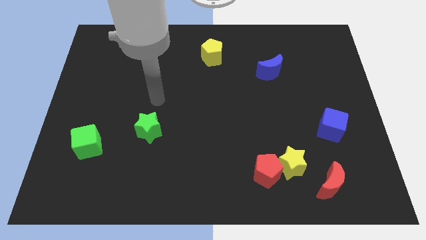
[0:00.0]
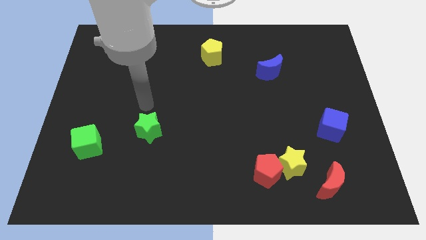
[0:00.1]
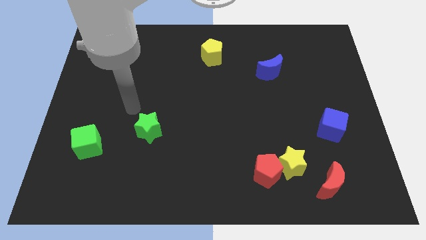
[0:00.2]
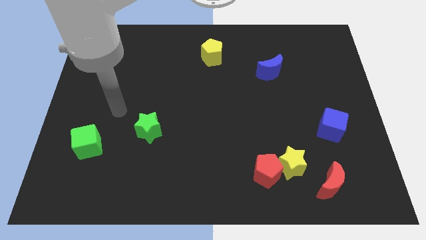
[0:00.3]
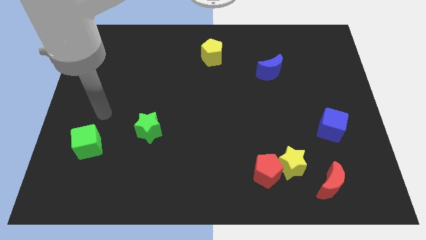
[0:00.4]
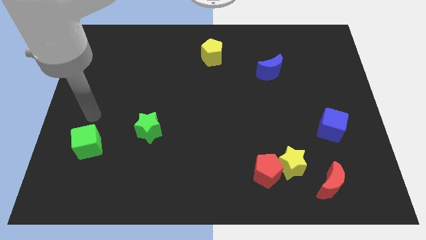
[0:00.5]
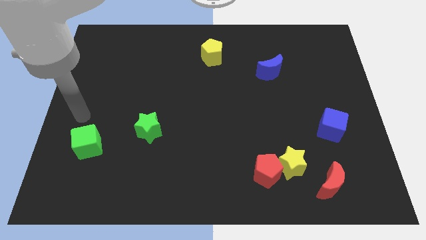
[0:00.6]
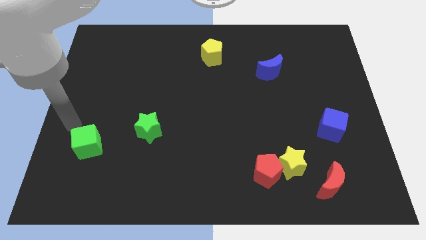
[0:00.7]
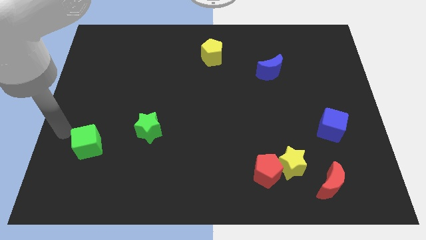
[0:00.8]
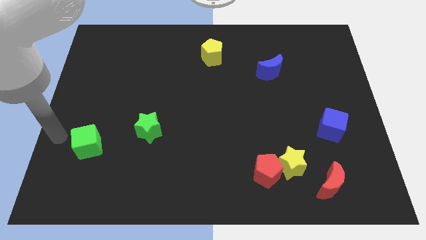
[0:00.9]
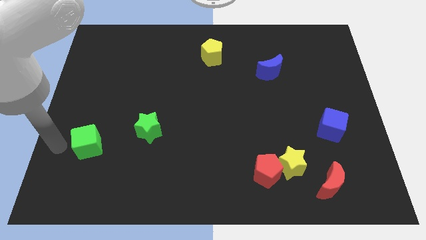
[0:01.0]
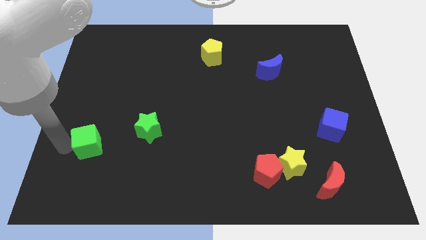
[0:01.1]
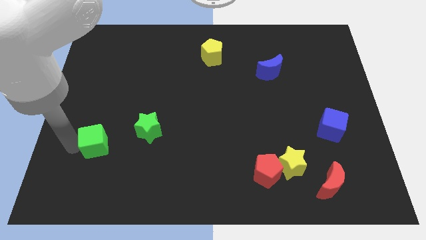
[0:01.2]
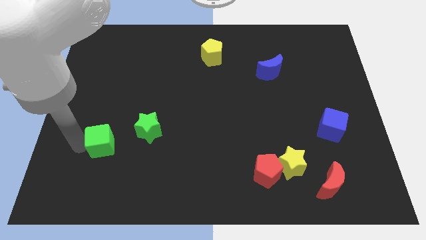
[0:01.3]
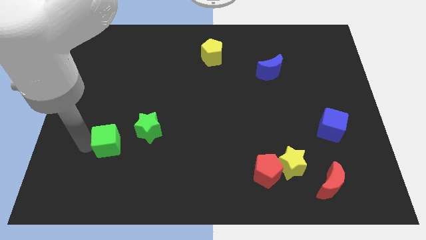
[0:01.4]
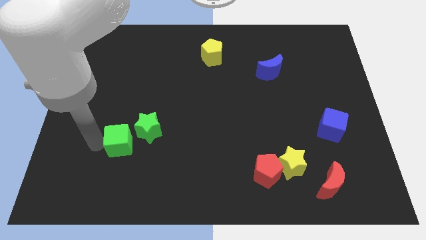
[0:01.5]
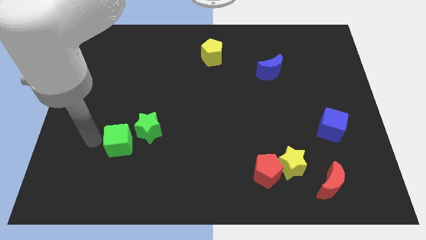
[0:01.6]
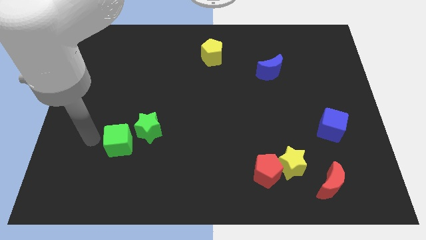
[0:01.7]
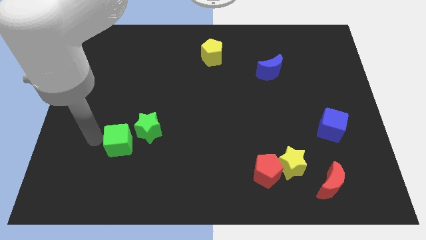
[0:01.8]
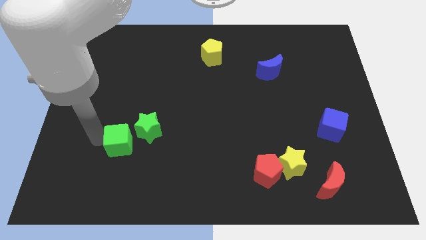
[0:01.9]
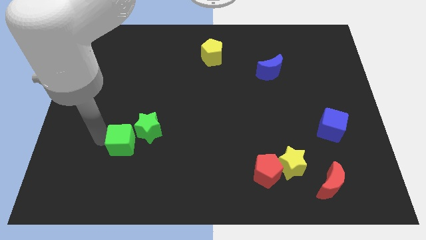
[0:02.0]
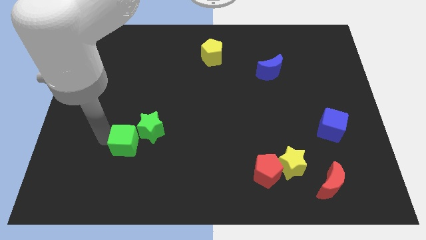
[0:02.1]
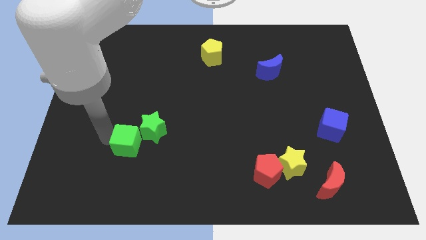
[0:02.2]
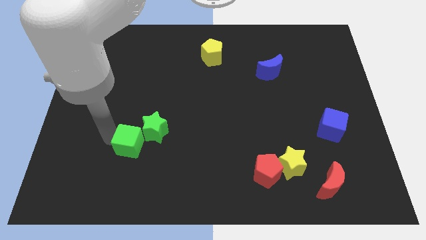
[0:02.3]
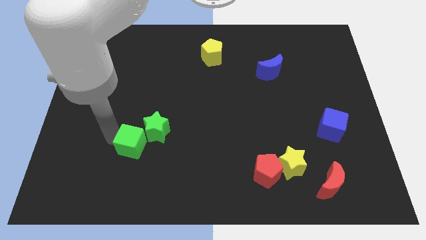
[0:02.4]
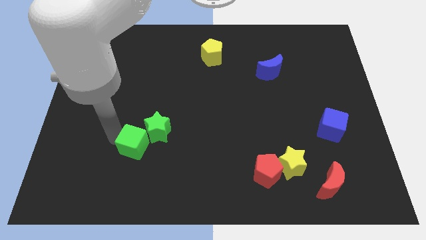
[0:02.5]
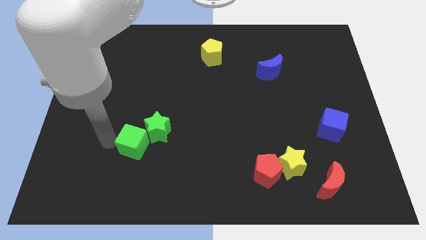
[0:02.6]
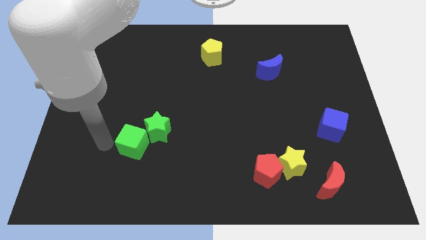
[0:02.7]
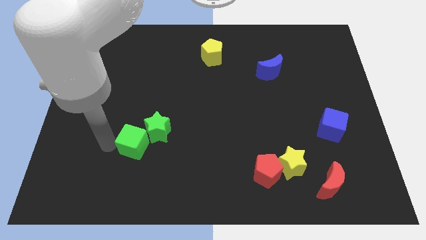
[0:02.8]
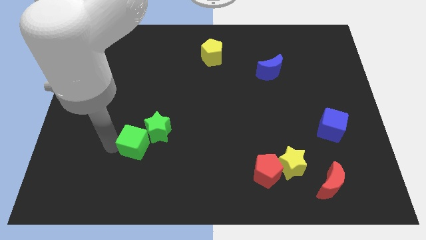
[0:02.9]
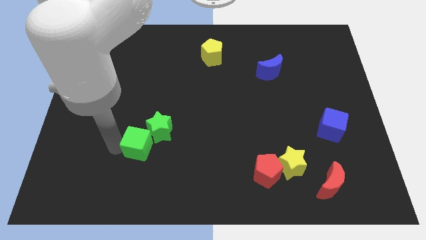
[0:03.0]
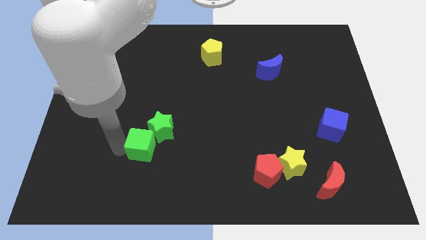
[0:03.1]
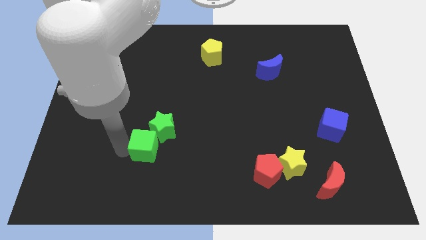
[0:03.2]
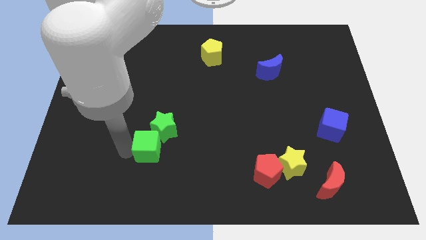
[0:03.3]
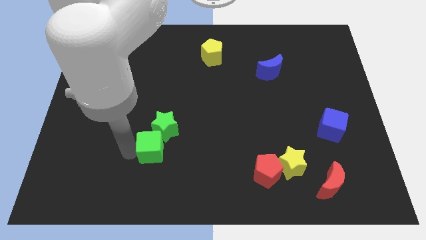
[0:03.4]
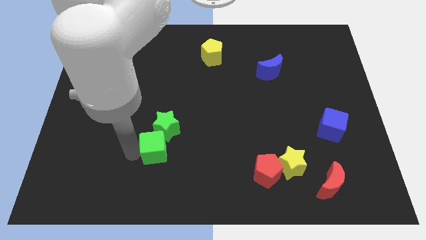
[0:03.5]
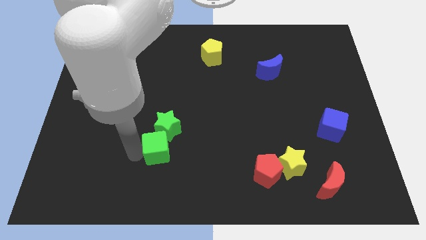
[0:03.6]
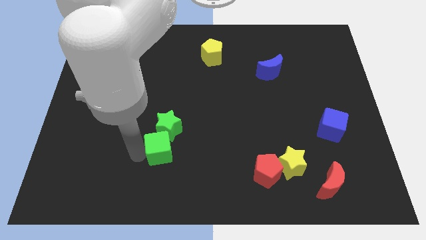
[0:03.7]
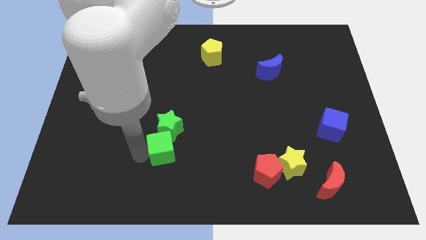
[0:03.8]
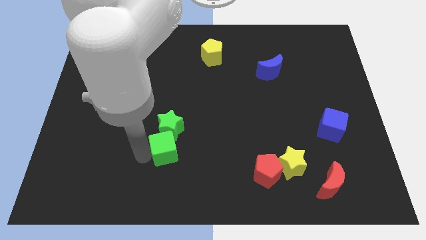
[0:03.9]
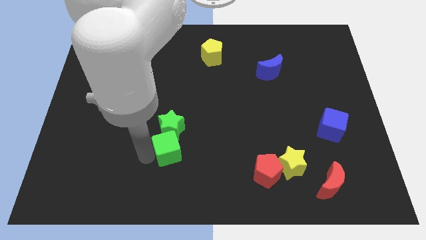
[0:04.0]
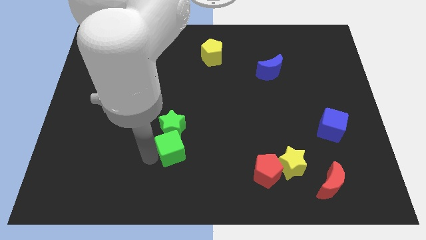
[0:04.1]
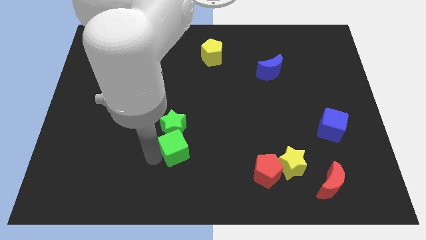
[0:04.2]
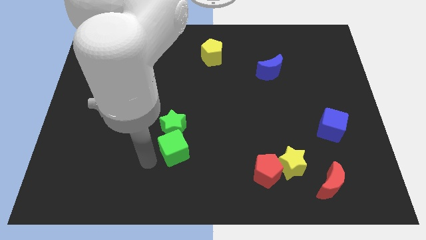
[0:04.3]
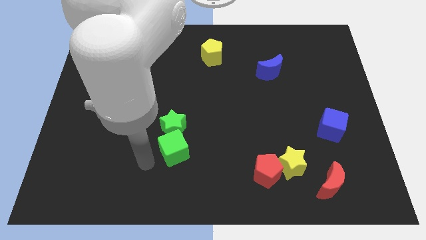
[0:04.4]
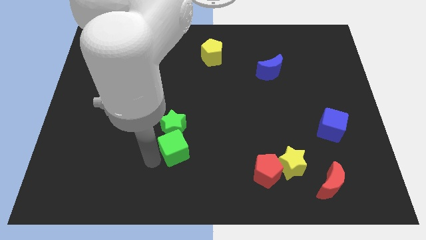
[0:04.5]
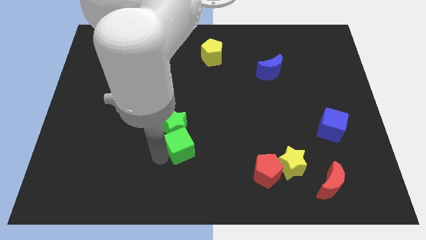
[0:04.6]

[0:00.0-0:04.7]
move the green cube right

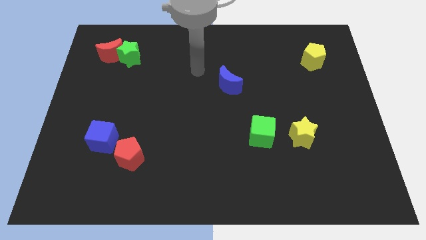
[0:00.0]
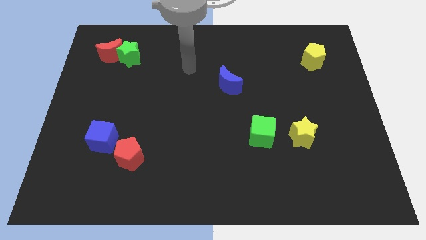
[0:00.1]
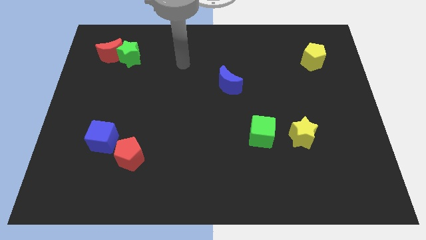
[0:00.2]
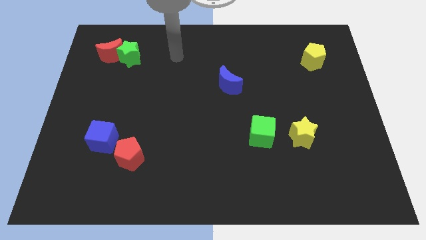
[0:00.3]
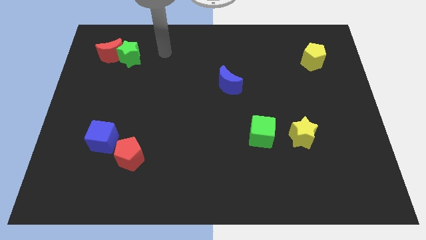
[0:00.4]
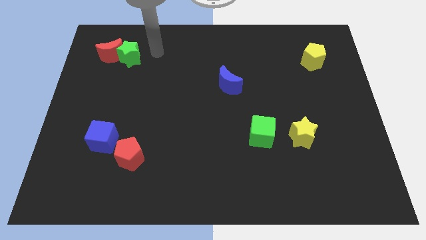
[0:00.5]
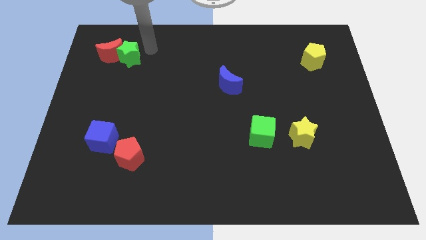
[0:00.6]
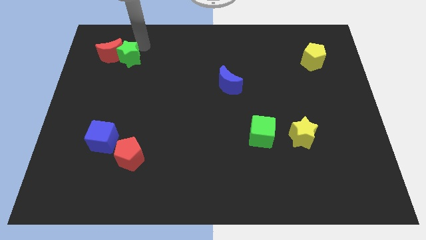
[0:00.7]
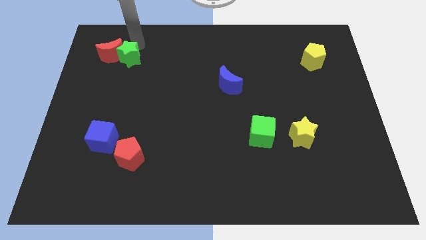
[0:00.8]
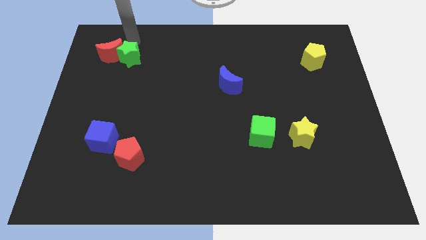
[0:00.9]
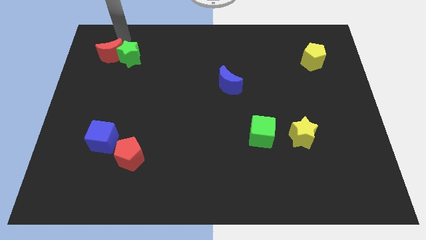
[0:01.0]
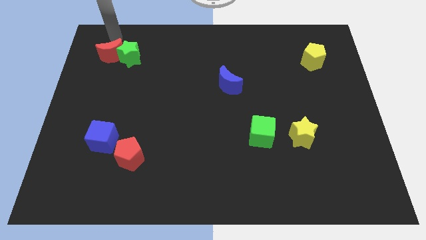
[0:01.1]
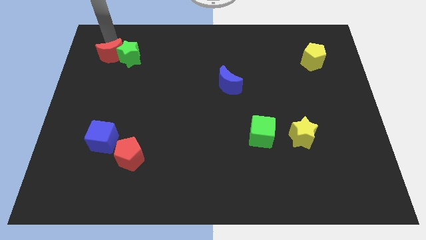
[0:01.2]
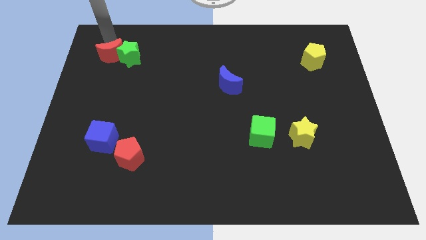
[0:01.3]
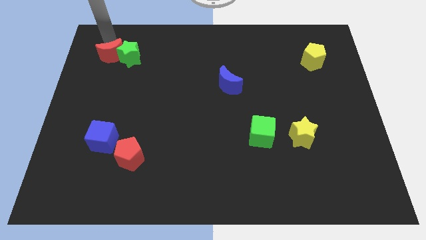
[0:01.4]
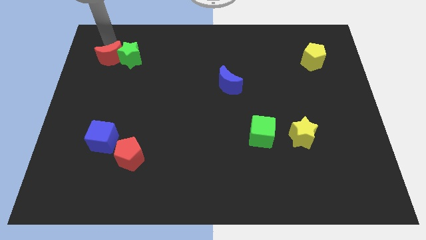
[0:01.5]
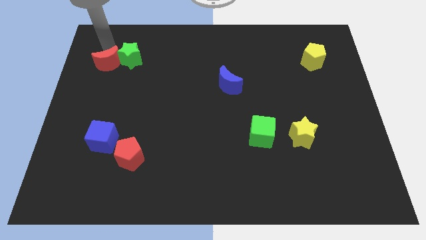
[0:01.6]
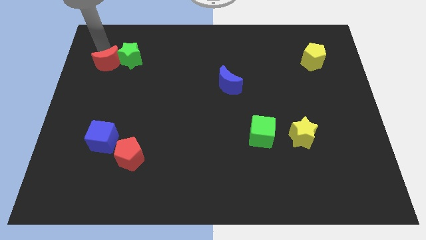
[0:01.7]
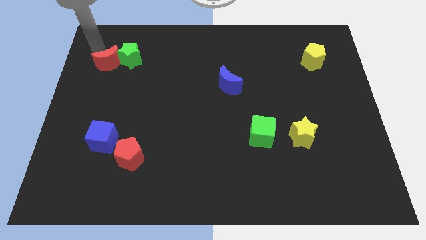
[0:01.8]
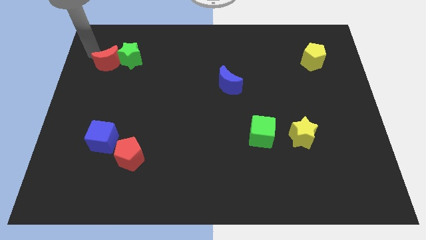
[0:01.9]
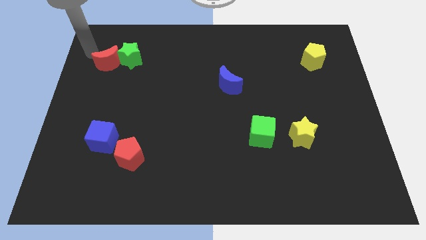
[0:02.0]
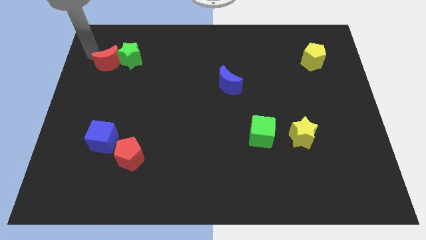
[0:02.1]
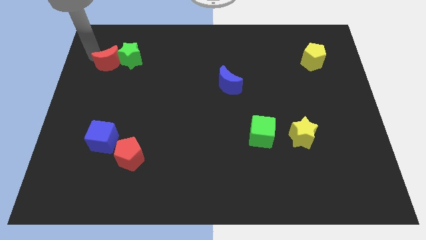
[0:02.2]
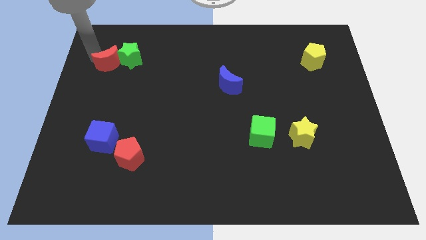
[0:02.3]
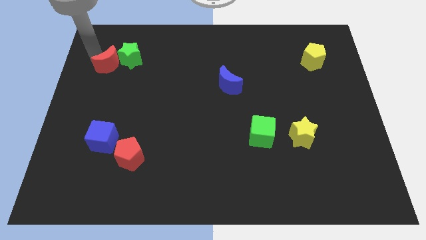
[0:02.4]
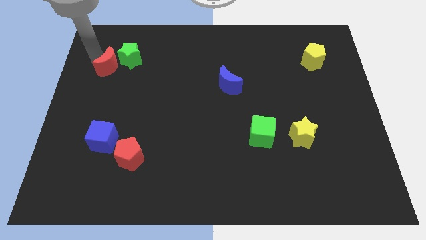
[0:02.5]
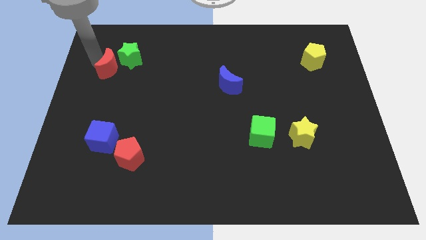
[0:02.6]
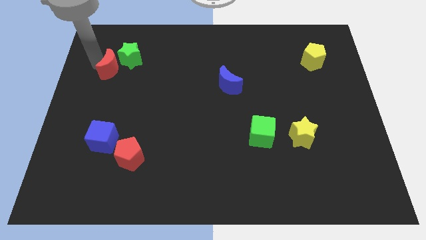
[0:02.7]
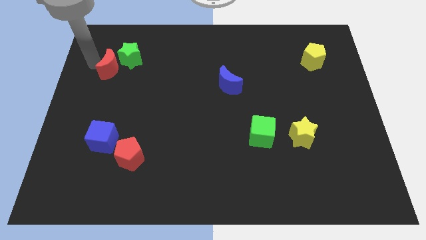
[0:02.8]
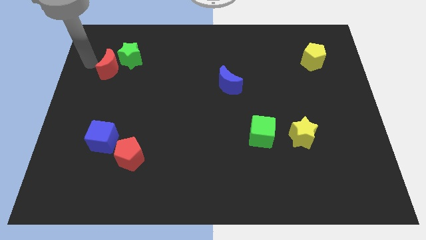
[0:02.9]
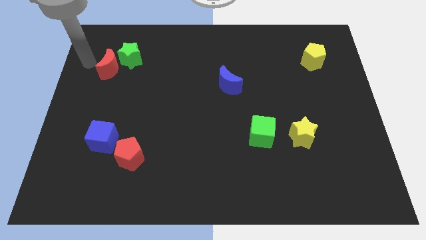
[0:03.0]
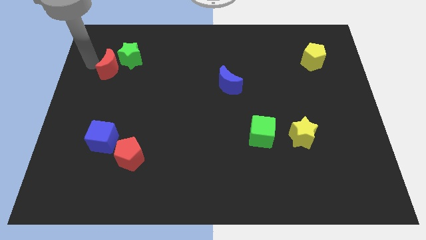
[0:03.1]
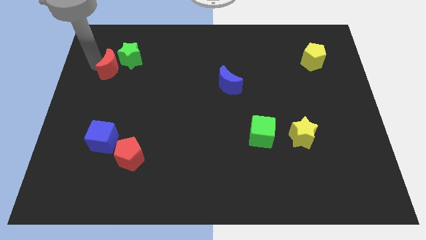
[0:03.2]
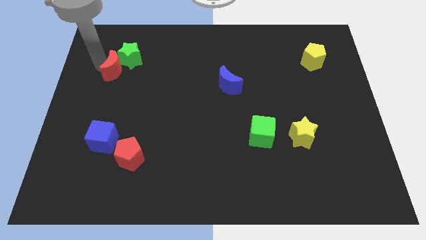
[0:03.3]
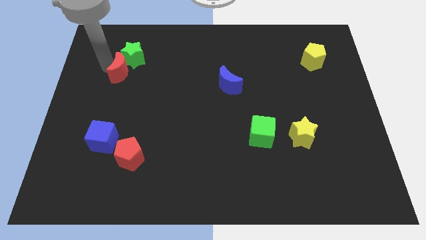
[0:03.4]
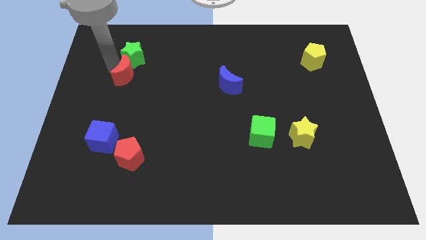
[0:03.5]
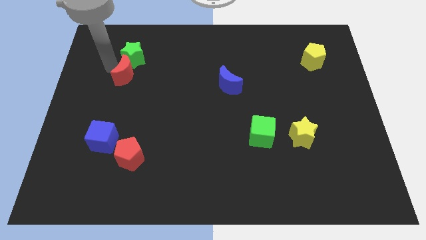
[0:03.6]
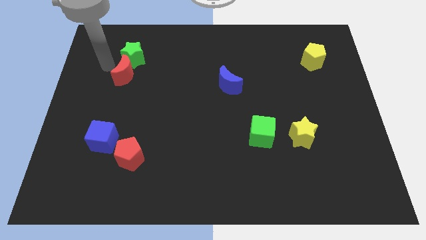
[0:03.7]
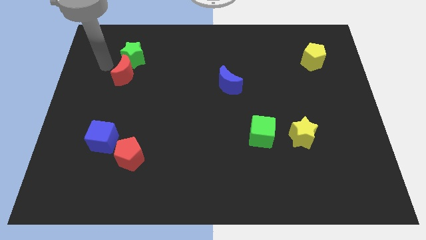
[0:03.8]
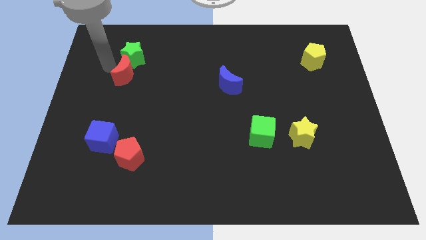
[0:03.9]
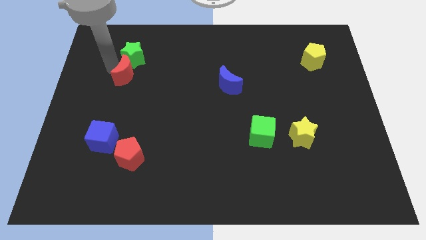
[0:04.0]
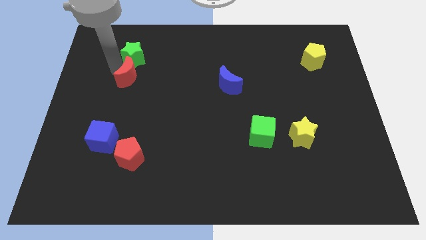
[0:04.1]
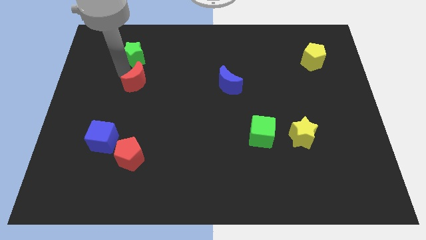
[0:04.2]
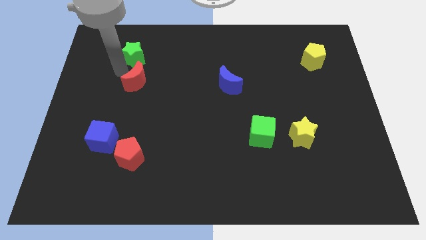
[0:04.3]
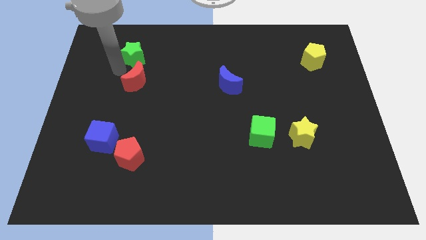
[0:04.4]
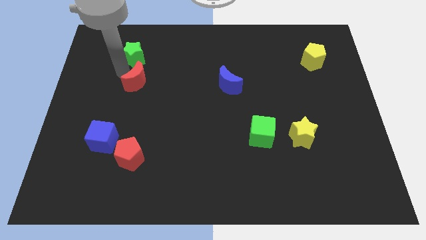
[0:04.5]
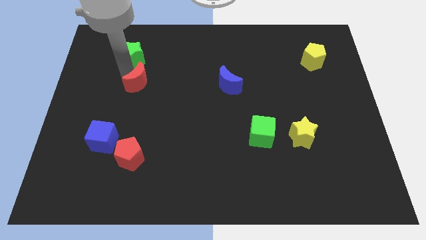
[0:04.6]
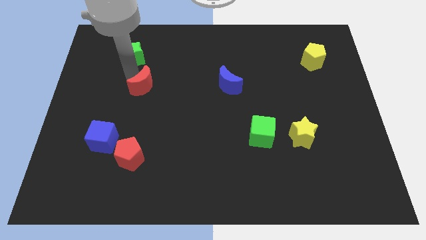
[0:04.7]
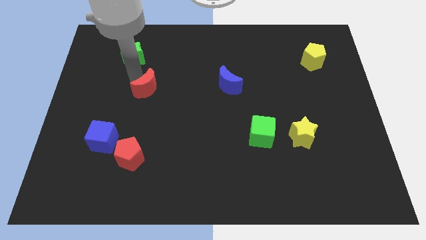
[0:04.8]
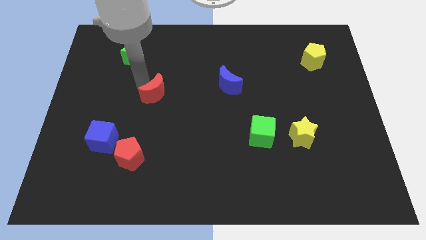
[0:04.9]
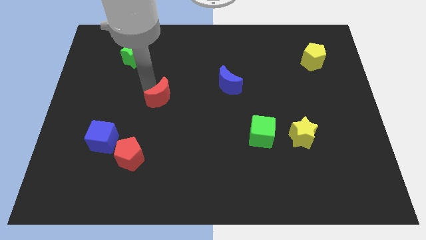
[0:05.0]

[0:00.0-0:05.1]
slide the red moon down and then to the right
